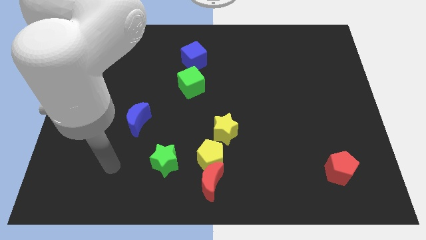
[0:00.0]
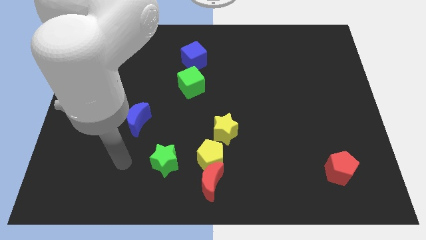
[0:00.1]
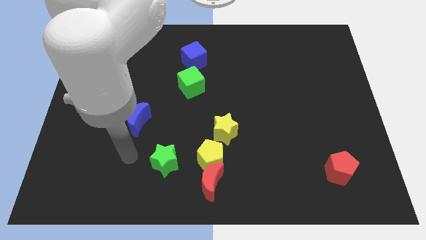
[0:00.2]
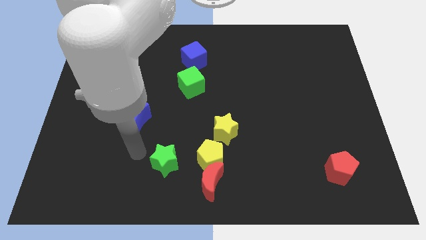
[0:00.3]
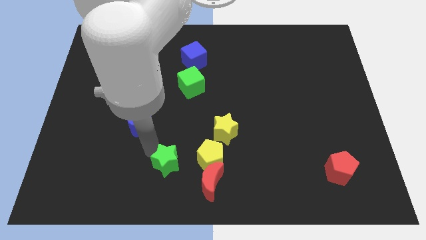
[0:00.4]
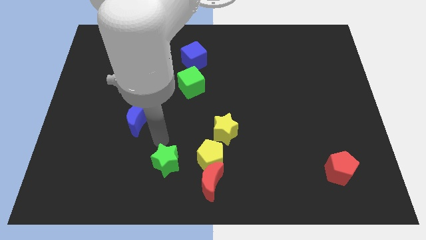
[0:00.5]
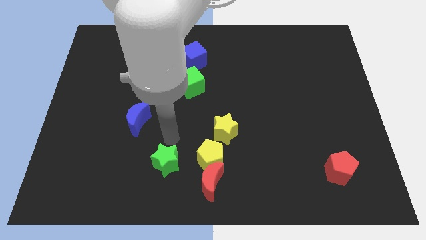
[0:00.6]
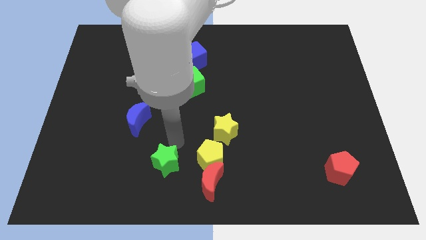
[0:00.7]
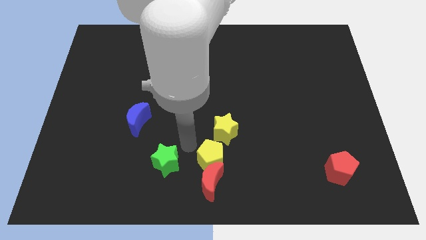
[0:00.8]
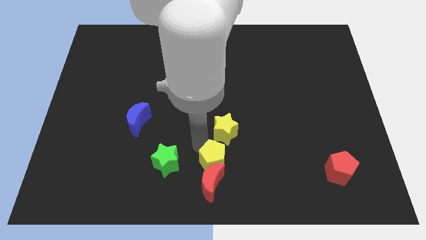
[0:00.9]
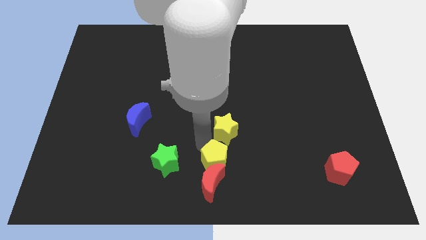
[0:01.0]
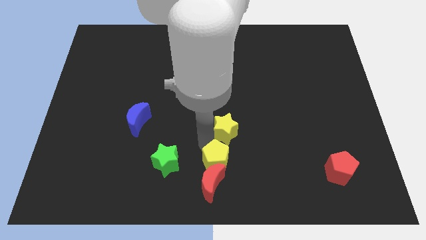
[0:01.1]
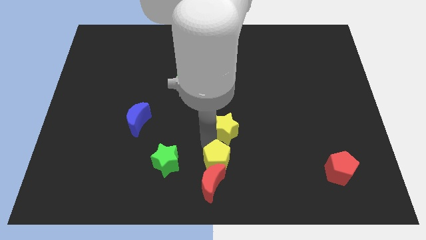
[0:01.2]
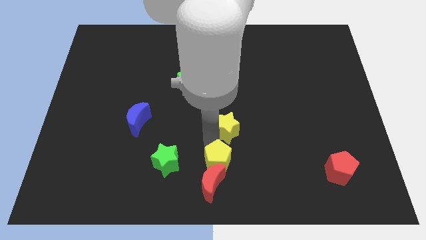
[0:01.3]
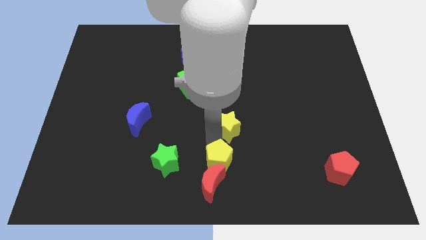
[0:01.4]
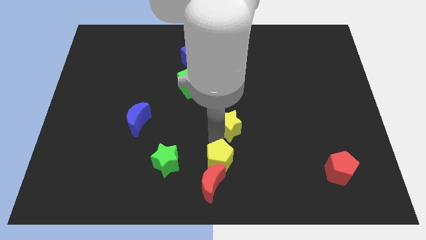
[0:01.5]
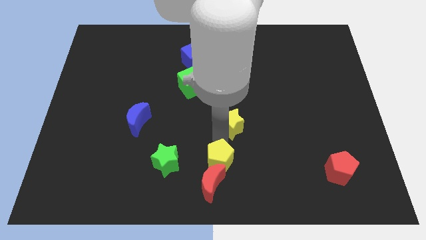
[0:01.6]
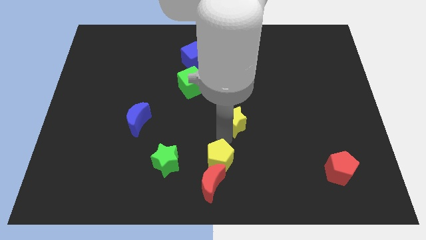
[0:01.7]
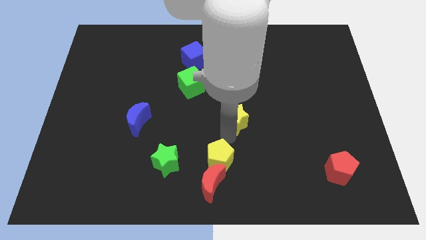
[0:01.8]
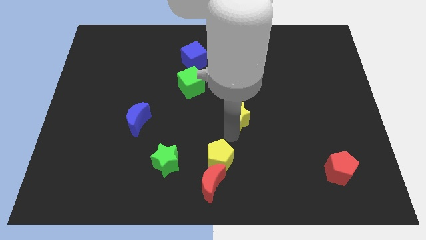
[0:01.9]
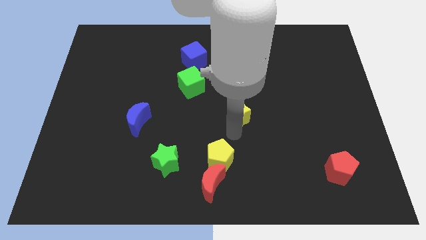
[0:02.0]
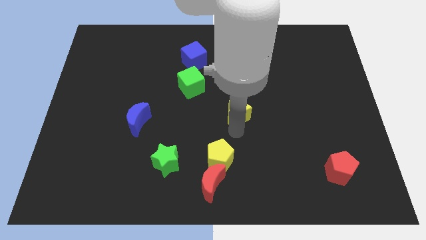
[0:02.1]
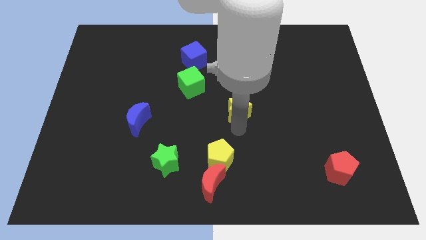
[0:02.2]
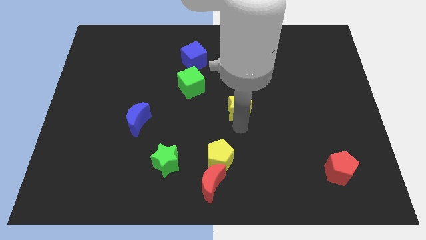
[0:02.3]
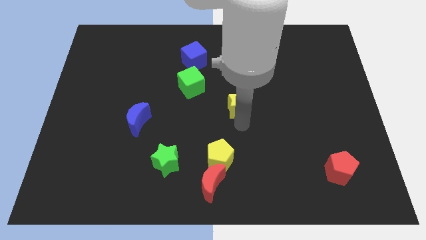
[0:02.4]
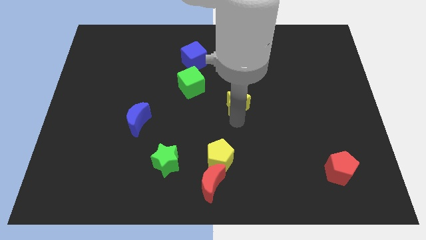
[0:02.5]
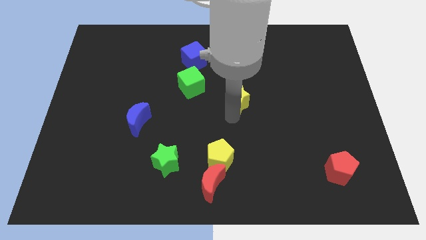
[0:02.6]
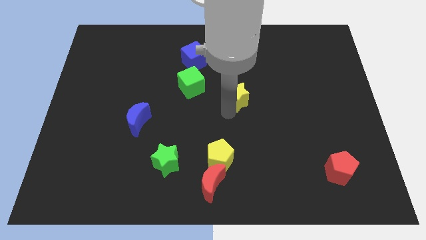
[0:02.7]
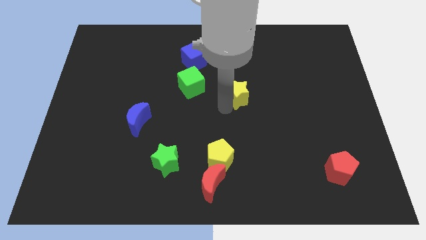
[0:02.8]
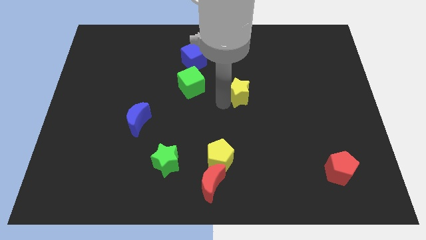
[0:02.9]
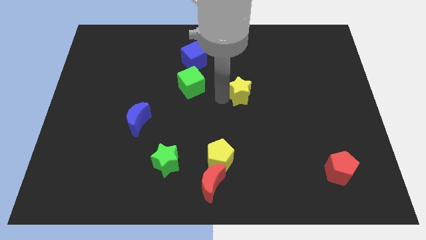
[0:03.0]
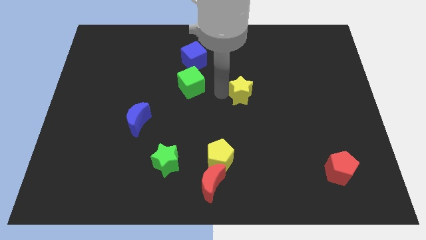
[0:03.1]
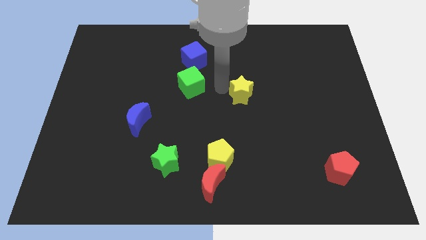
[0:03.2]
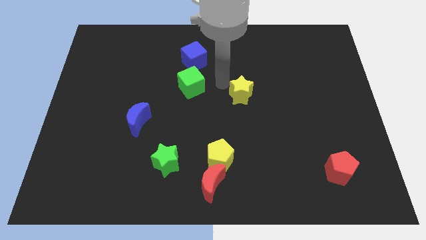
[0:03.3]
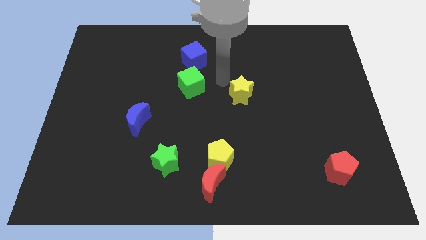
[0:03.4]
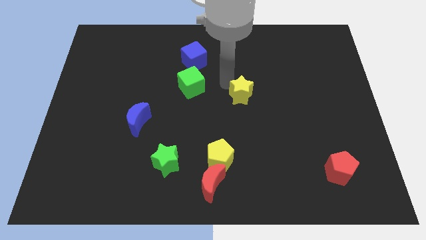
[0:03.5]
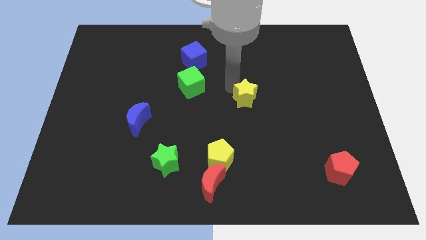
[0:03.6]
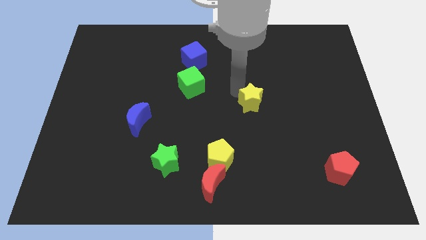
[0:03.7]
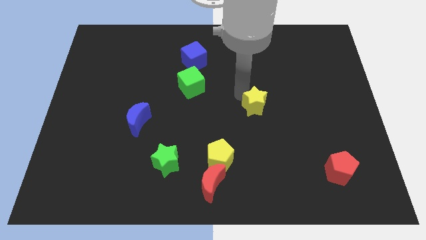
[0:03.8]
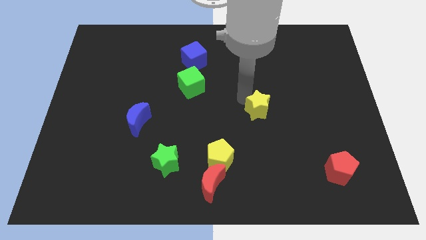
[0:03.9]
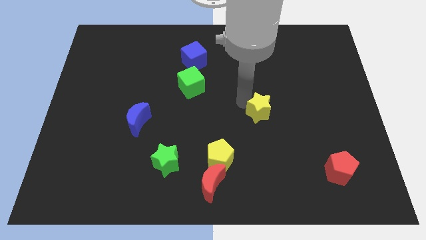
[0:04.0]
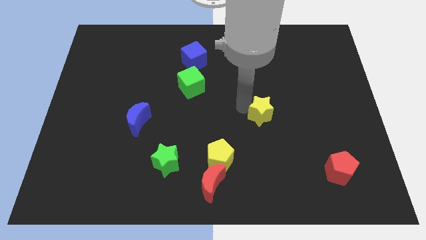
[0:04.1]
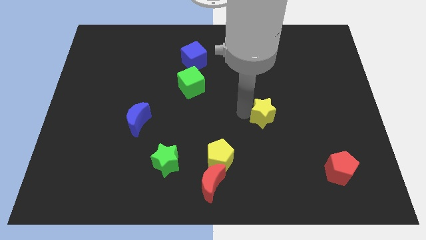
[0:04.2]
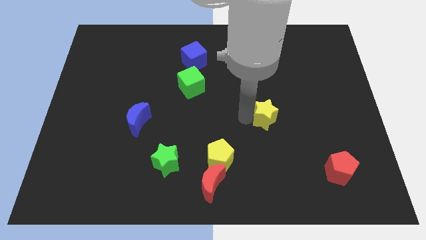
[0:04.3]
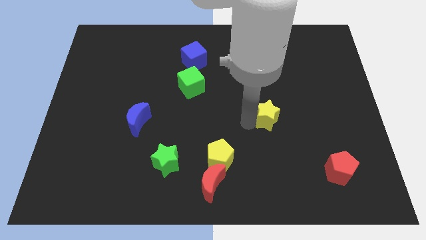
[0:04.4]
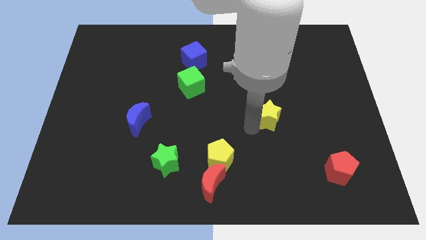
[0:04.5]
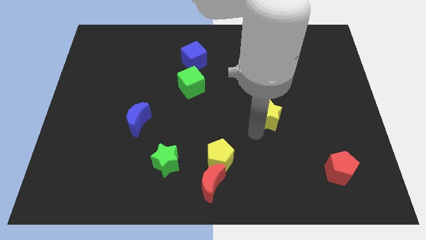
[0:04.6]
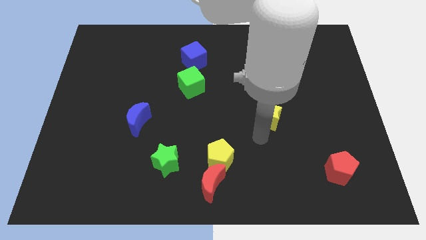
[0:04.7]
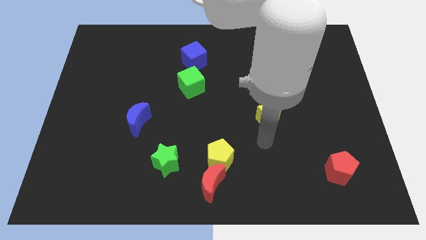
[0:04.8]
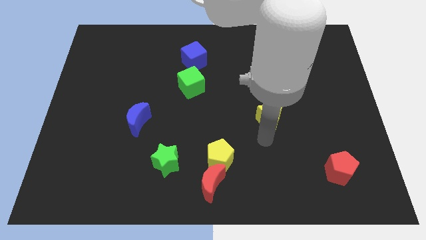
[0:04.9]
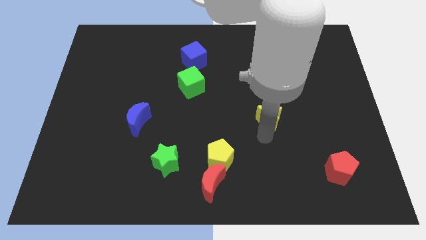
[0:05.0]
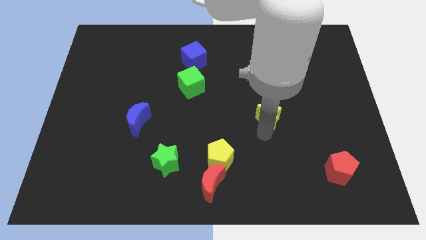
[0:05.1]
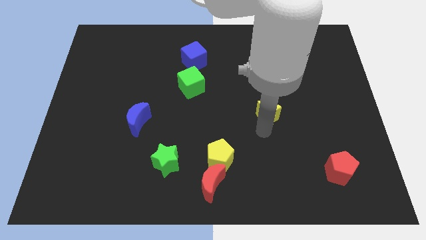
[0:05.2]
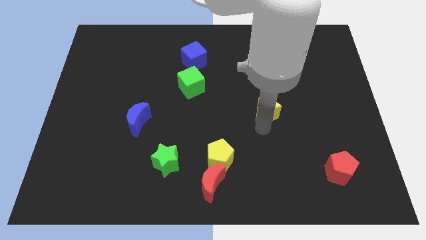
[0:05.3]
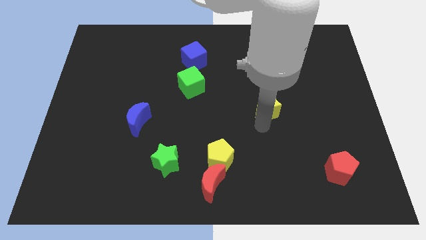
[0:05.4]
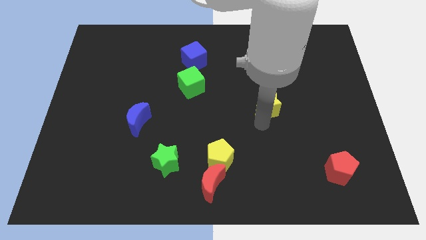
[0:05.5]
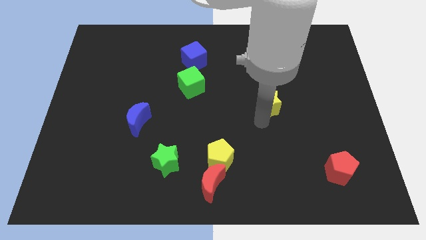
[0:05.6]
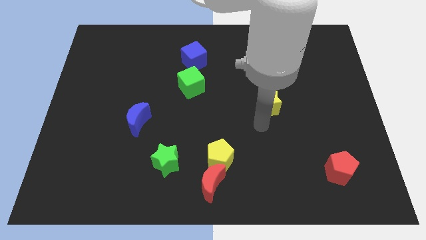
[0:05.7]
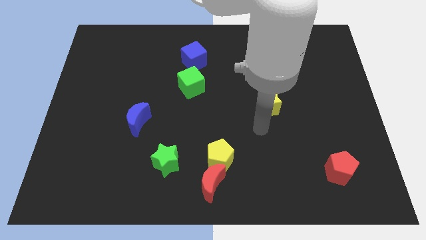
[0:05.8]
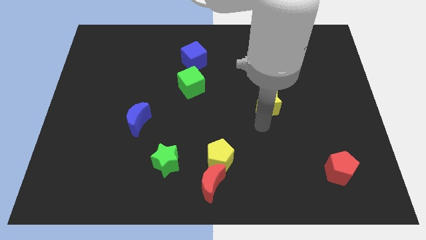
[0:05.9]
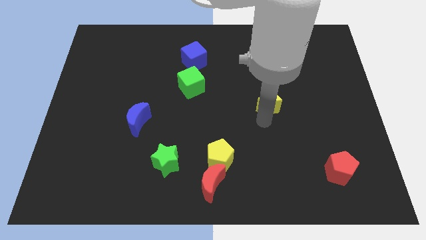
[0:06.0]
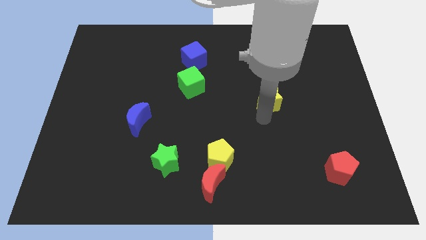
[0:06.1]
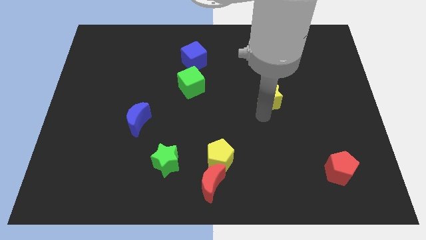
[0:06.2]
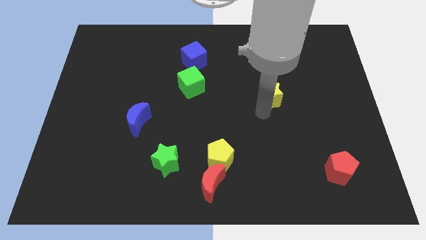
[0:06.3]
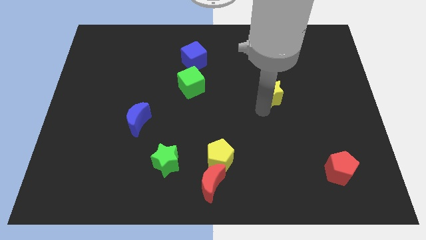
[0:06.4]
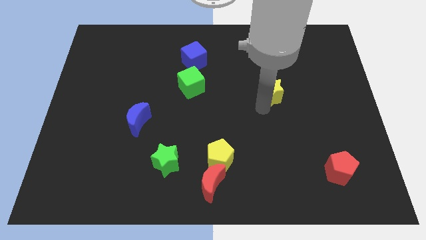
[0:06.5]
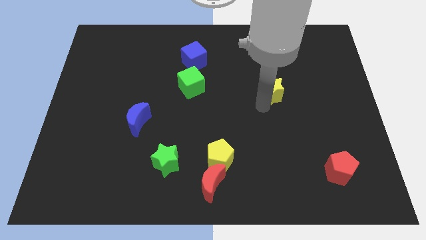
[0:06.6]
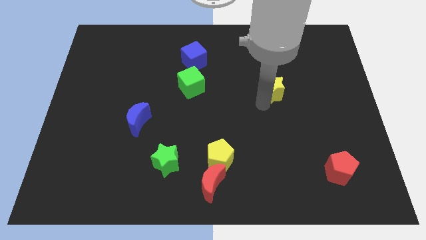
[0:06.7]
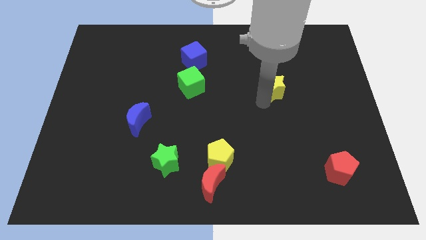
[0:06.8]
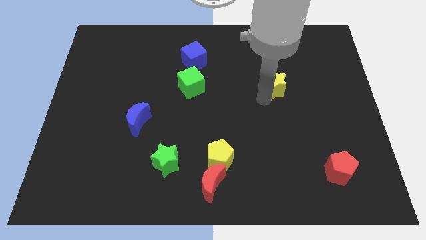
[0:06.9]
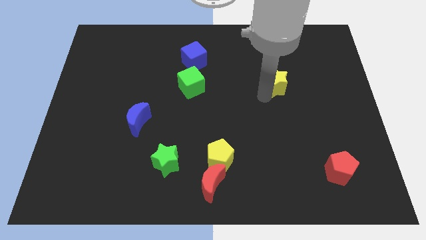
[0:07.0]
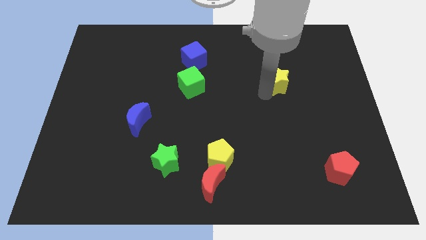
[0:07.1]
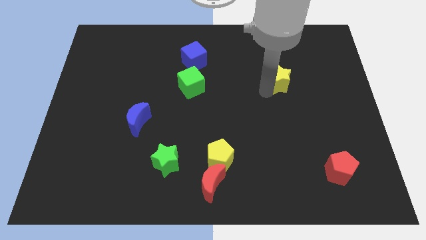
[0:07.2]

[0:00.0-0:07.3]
slide the yellow star up and to the right diagonally

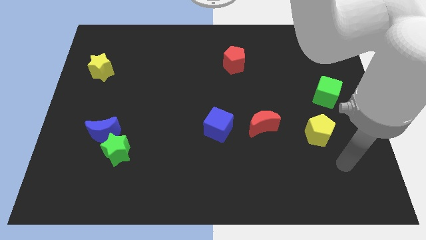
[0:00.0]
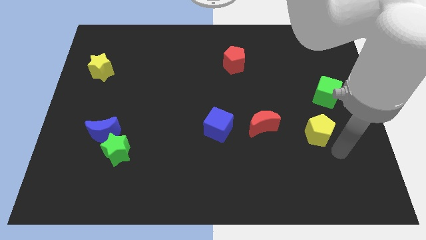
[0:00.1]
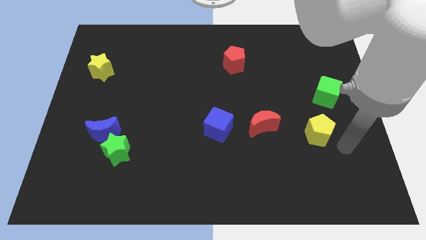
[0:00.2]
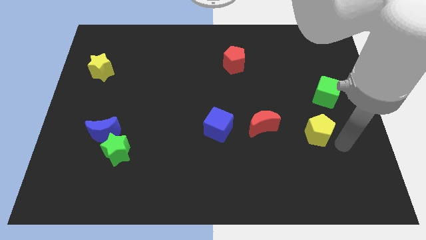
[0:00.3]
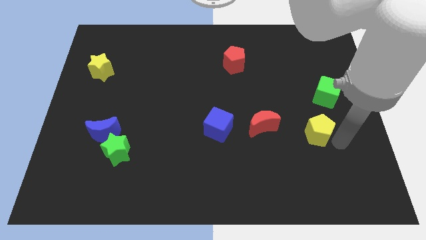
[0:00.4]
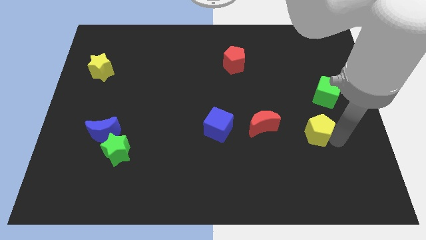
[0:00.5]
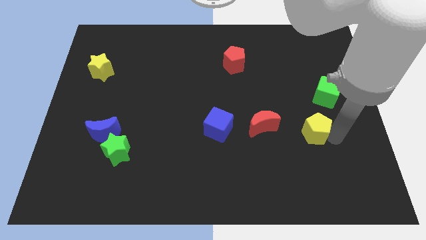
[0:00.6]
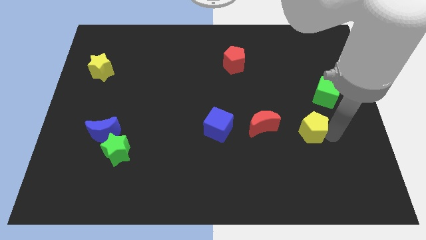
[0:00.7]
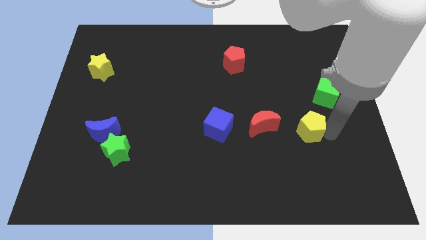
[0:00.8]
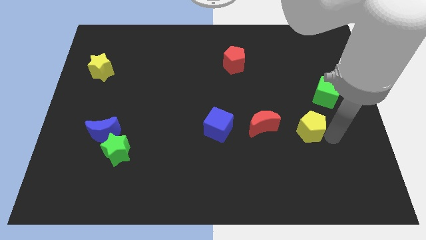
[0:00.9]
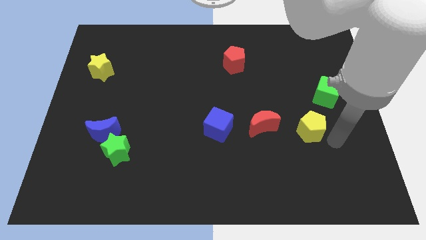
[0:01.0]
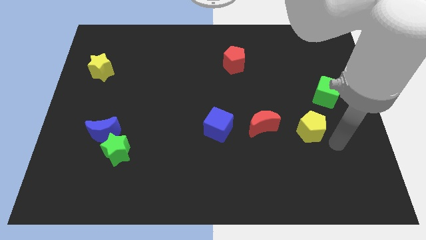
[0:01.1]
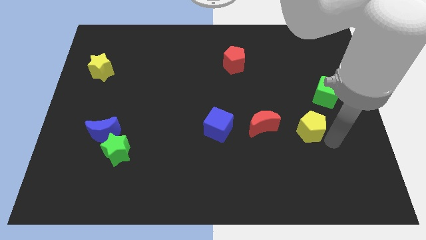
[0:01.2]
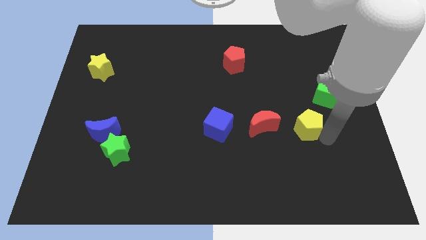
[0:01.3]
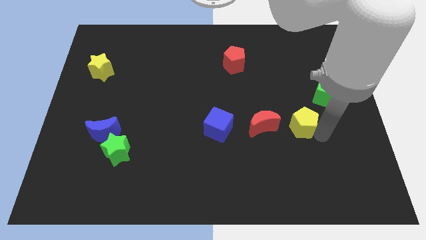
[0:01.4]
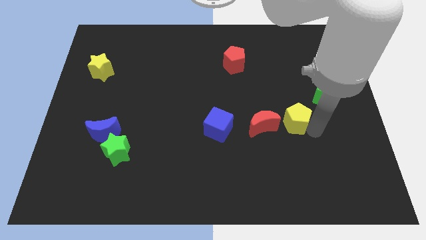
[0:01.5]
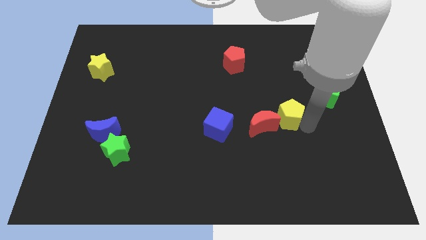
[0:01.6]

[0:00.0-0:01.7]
push the yellow pentagon upwards and left diagonally somewhat
